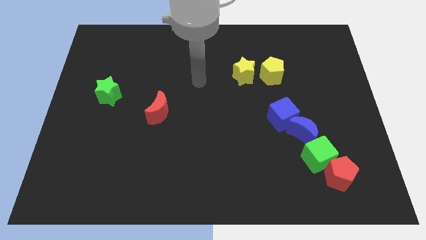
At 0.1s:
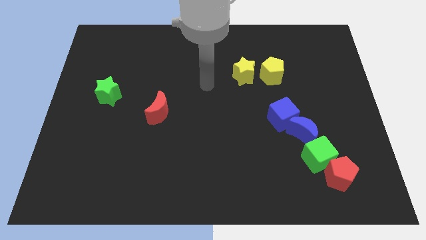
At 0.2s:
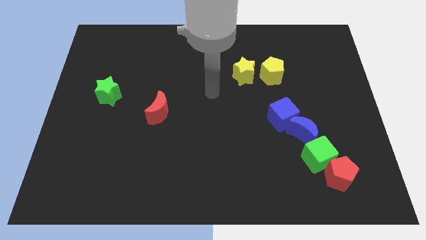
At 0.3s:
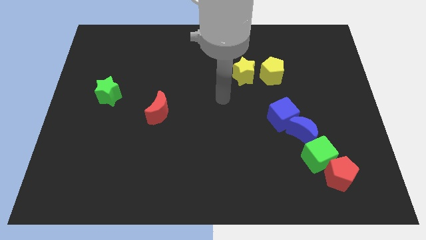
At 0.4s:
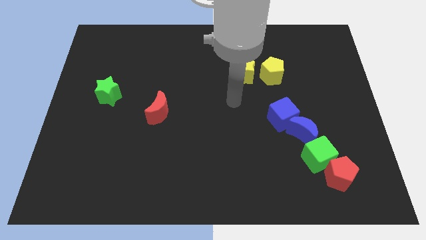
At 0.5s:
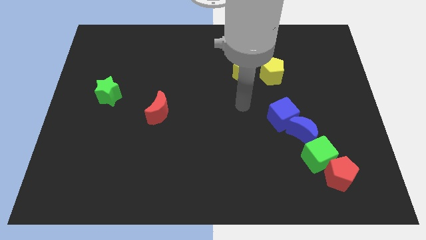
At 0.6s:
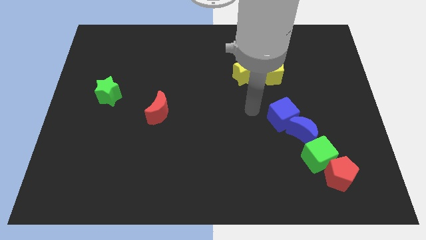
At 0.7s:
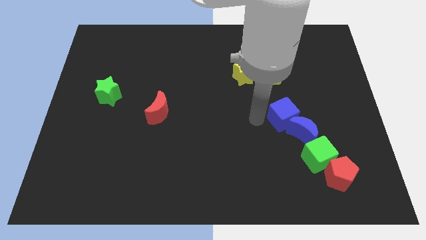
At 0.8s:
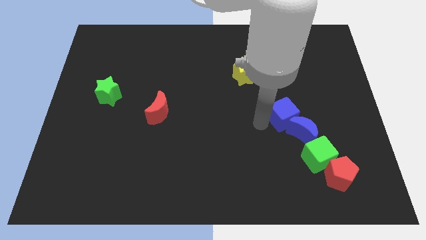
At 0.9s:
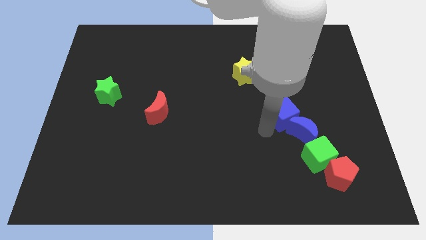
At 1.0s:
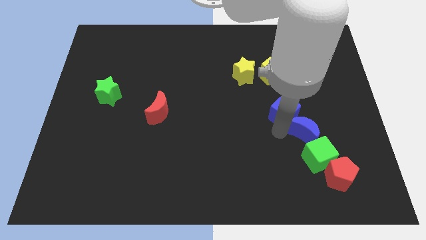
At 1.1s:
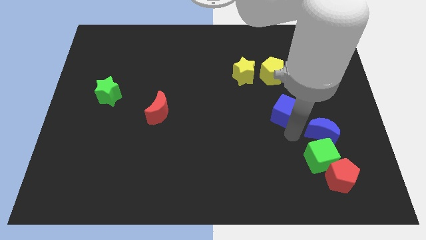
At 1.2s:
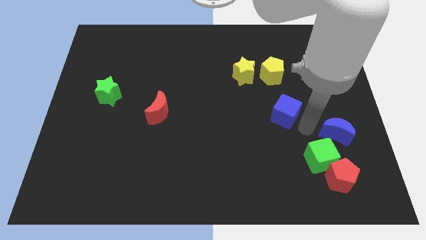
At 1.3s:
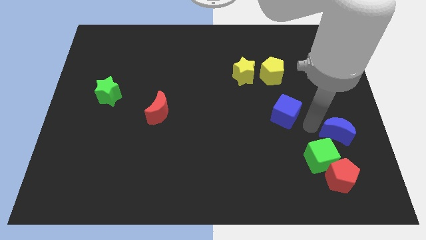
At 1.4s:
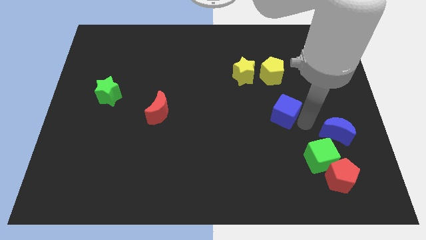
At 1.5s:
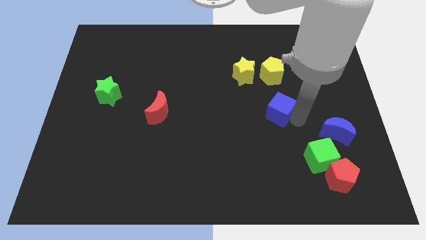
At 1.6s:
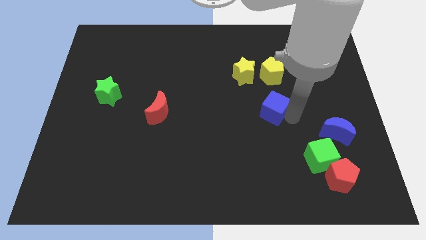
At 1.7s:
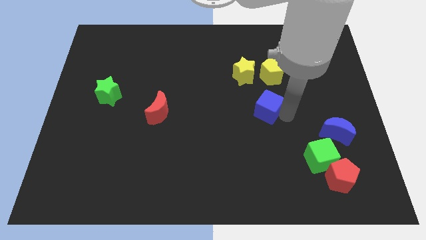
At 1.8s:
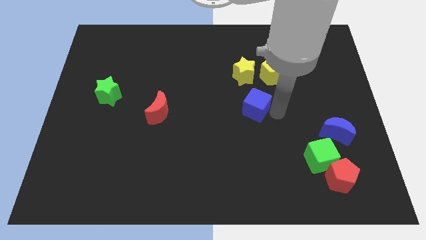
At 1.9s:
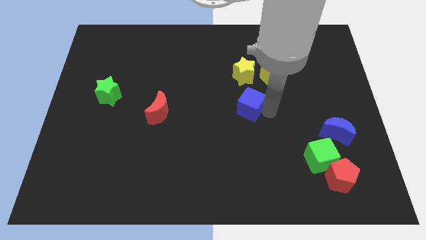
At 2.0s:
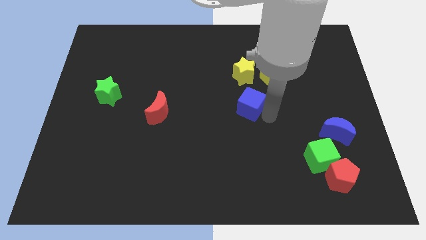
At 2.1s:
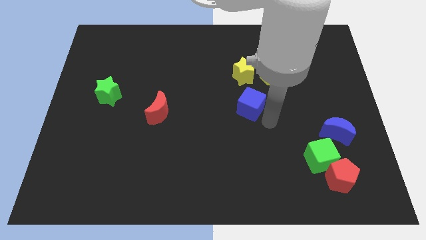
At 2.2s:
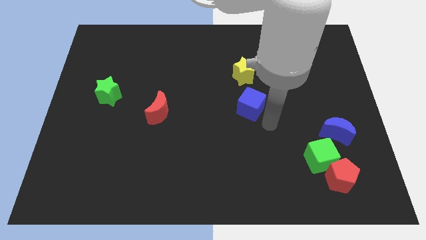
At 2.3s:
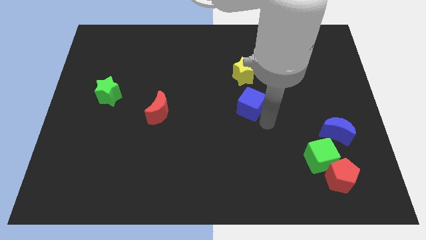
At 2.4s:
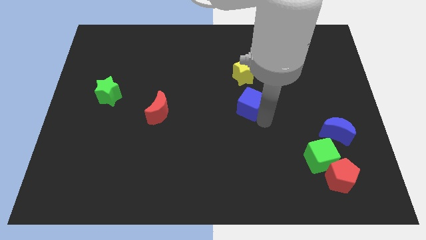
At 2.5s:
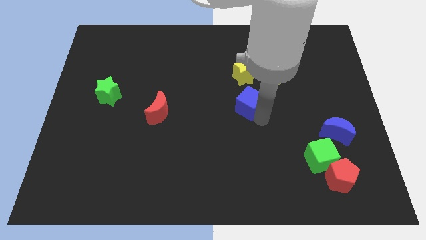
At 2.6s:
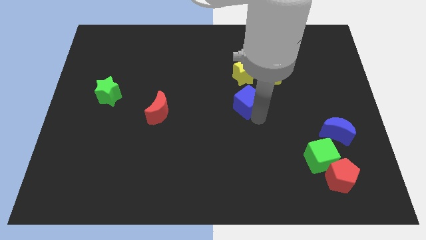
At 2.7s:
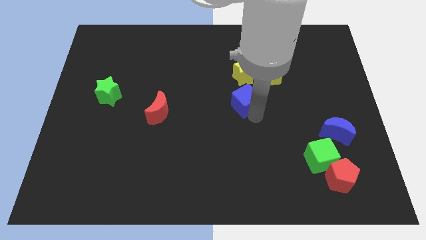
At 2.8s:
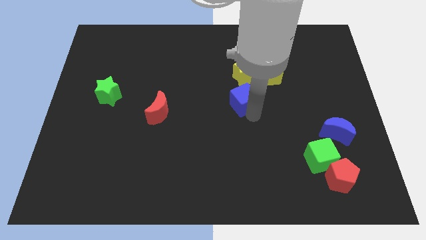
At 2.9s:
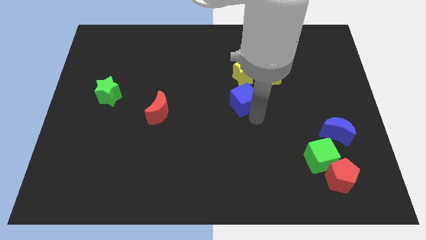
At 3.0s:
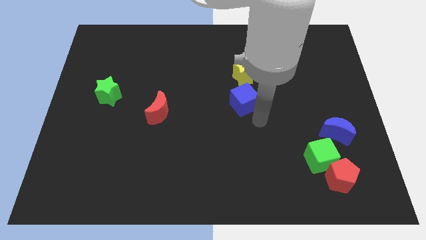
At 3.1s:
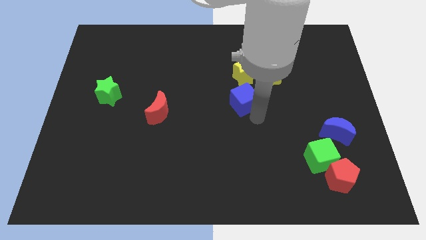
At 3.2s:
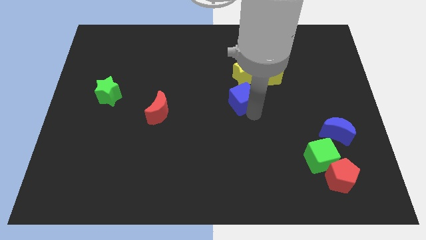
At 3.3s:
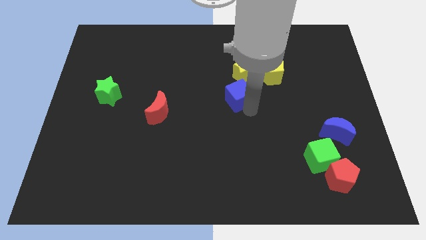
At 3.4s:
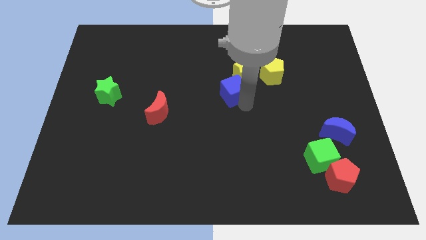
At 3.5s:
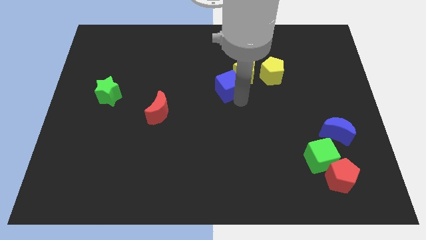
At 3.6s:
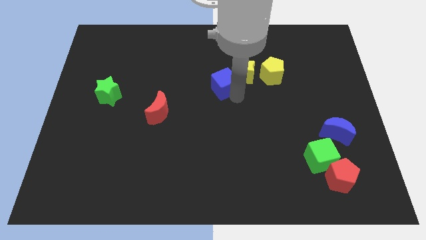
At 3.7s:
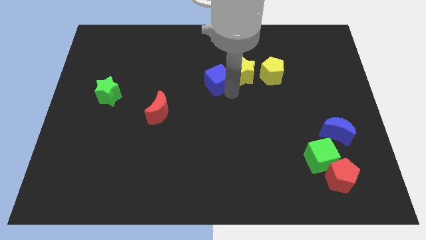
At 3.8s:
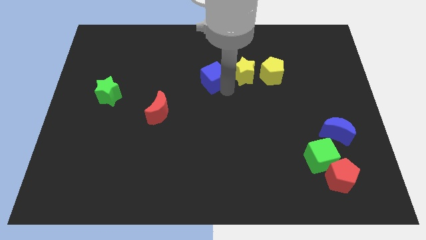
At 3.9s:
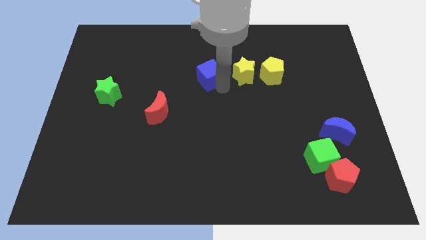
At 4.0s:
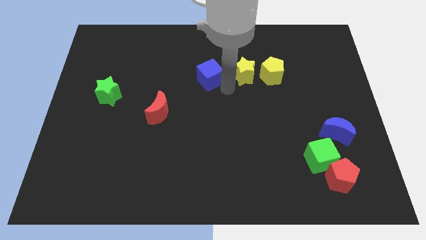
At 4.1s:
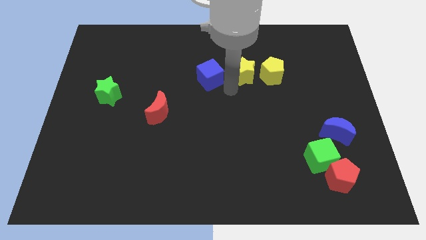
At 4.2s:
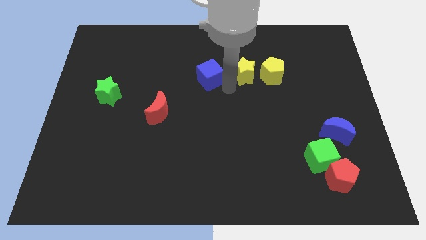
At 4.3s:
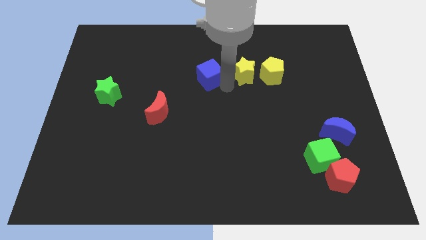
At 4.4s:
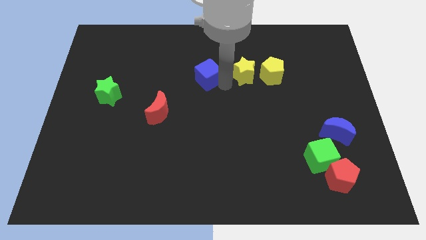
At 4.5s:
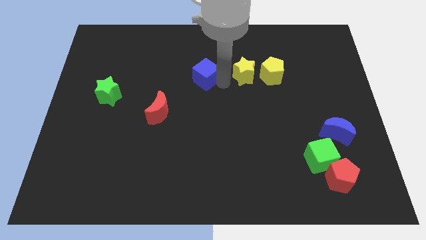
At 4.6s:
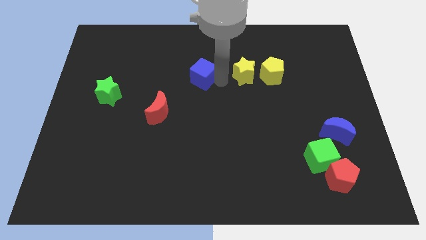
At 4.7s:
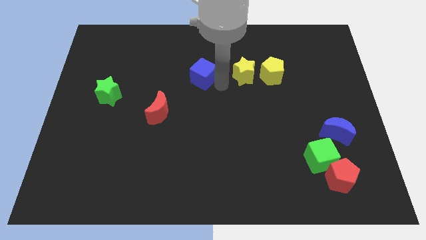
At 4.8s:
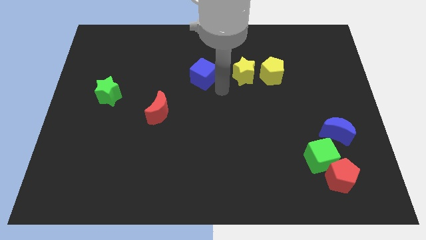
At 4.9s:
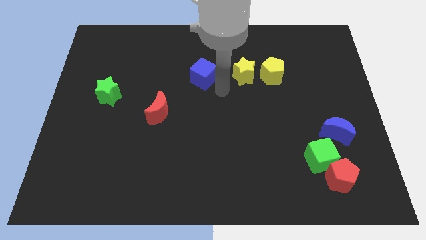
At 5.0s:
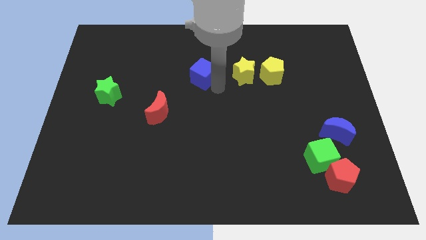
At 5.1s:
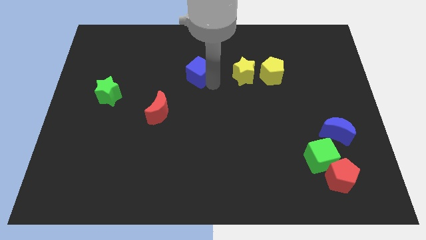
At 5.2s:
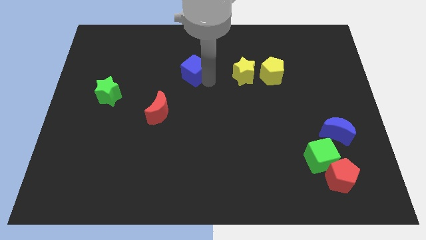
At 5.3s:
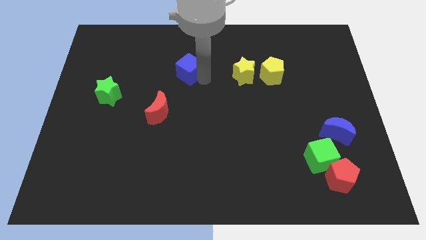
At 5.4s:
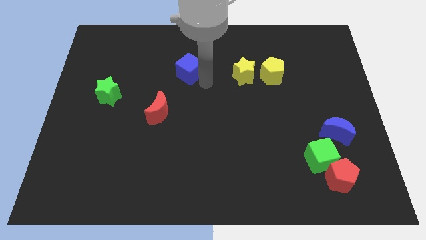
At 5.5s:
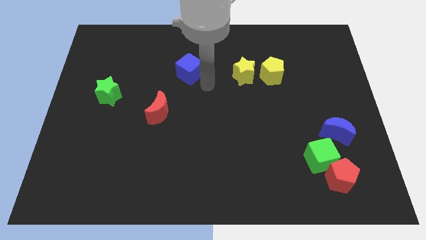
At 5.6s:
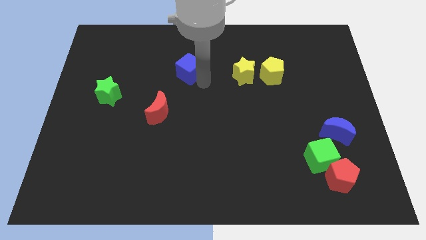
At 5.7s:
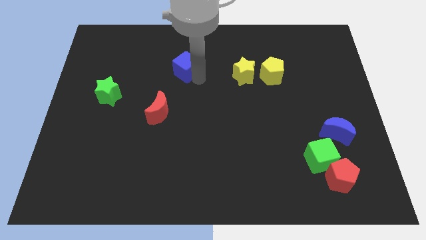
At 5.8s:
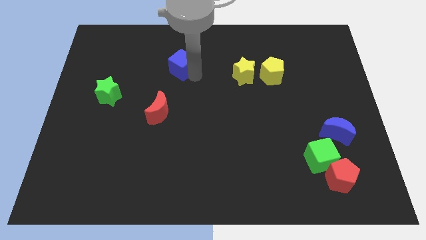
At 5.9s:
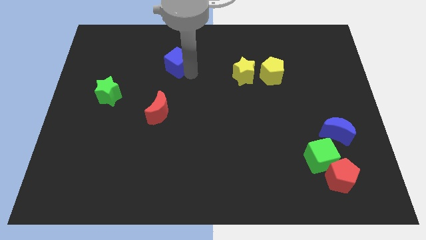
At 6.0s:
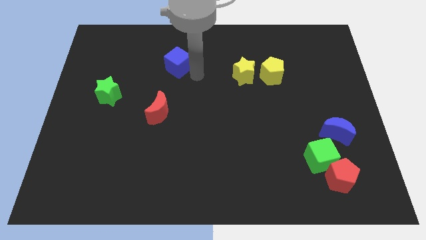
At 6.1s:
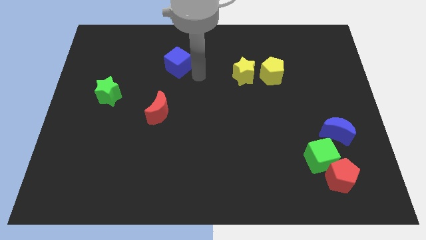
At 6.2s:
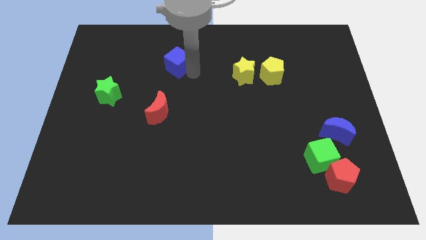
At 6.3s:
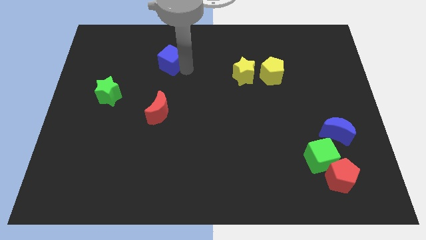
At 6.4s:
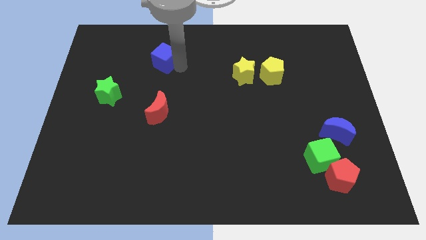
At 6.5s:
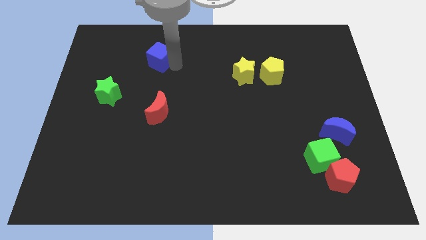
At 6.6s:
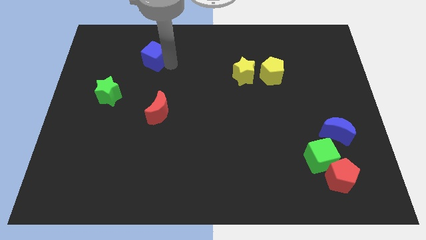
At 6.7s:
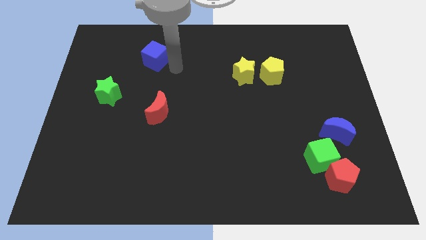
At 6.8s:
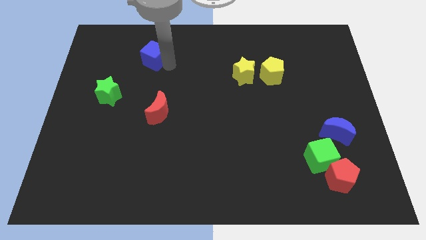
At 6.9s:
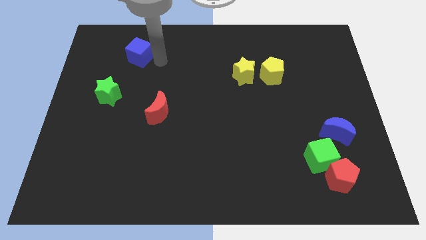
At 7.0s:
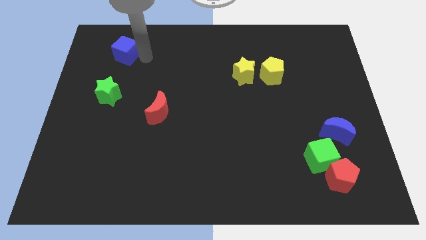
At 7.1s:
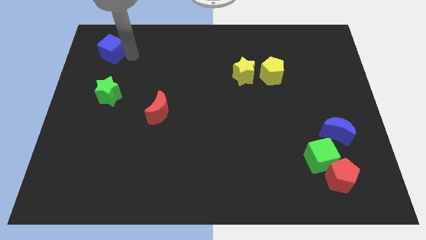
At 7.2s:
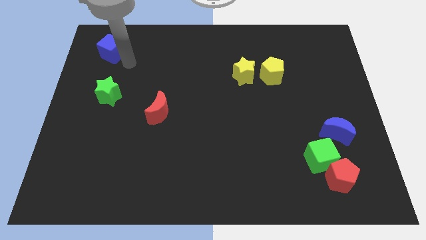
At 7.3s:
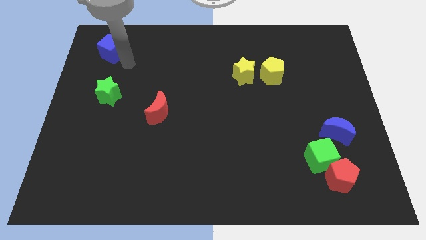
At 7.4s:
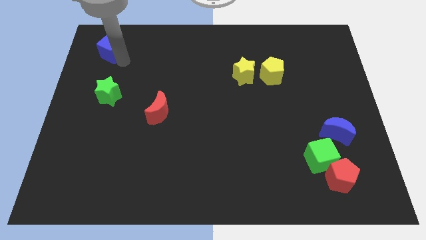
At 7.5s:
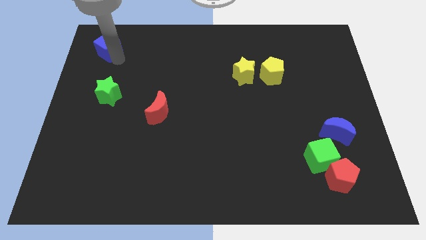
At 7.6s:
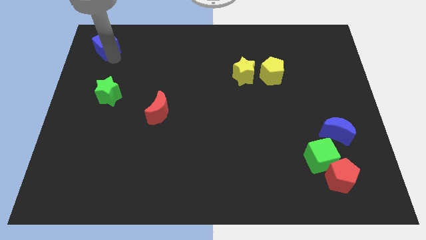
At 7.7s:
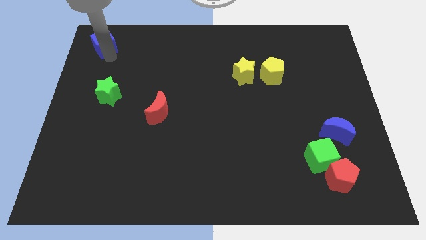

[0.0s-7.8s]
move the blue cube to the top left of the board
